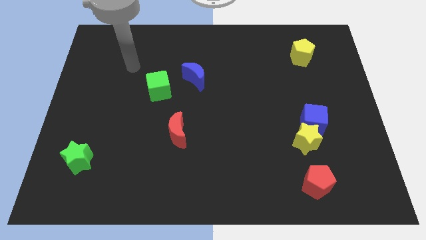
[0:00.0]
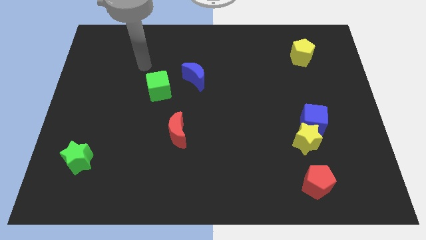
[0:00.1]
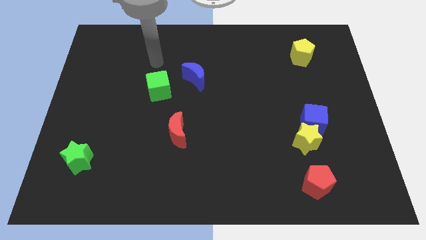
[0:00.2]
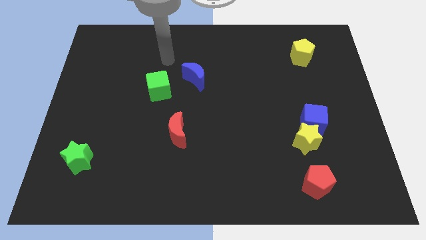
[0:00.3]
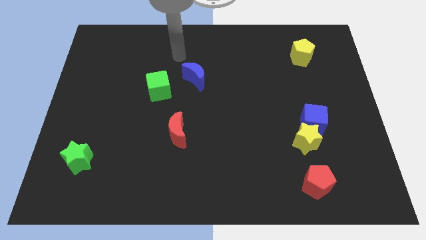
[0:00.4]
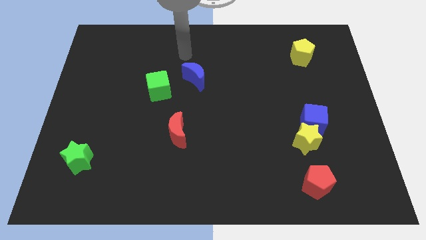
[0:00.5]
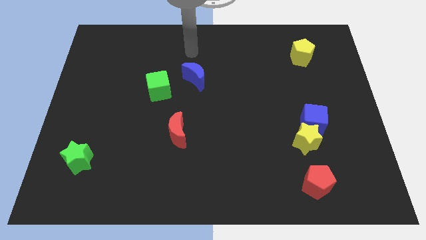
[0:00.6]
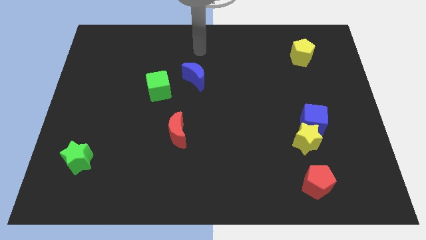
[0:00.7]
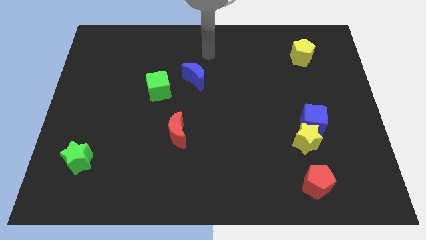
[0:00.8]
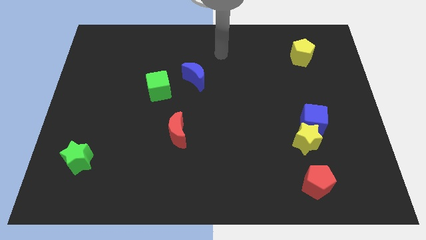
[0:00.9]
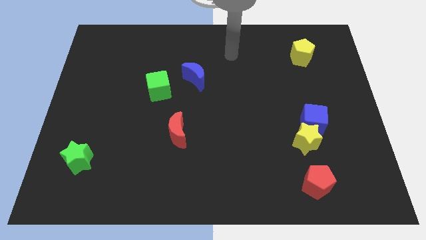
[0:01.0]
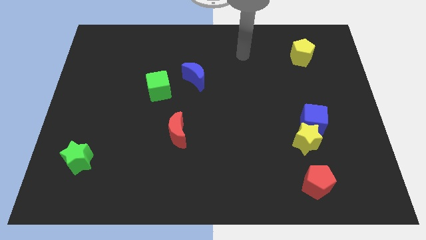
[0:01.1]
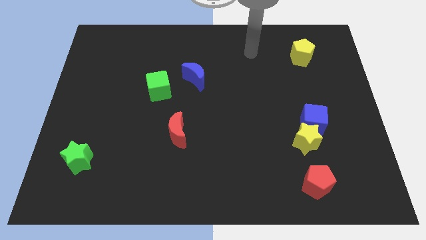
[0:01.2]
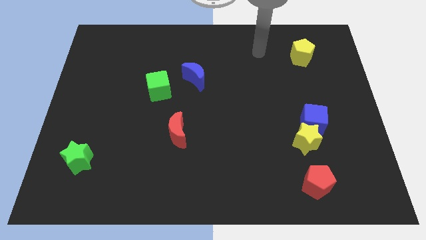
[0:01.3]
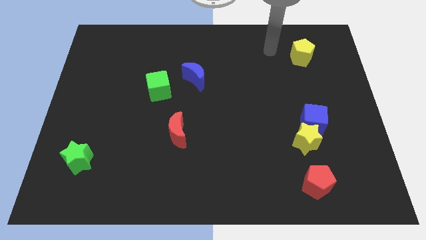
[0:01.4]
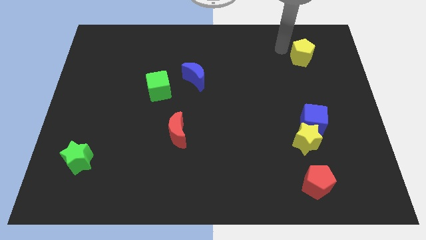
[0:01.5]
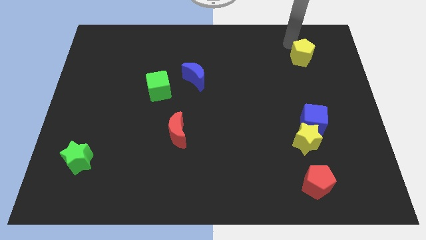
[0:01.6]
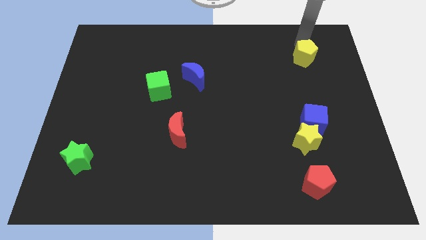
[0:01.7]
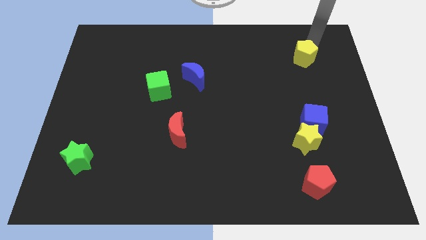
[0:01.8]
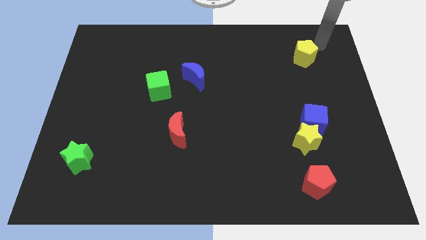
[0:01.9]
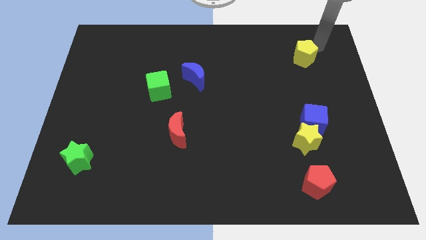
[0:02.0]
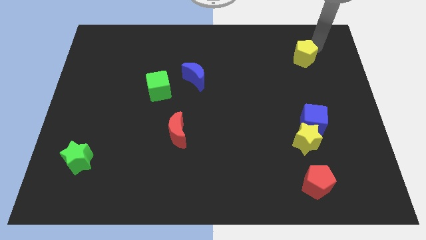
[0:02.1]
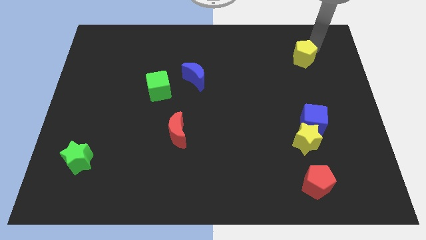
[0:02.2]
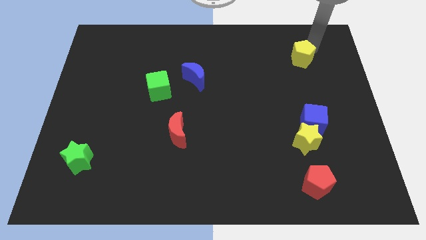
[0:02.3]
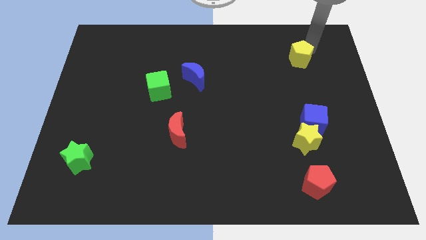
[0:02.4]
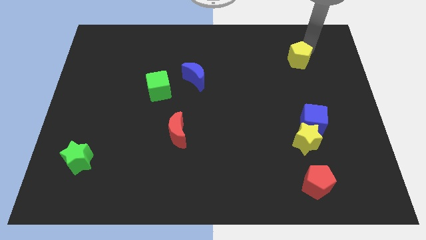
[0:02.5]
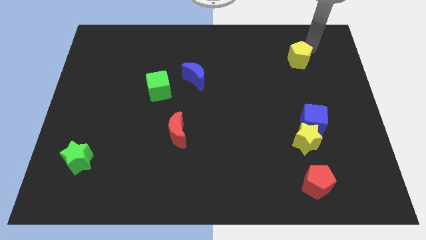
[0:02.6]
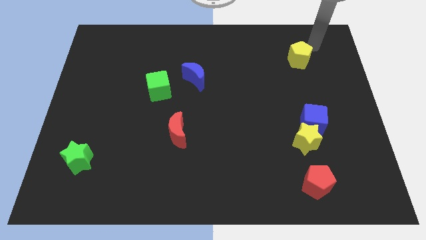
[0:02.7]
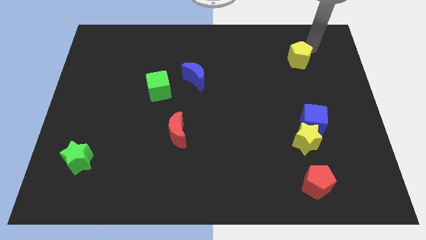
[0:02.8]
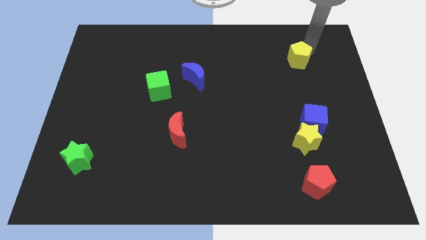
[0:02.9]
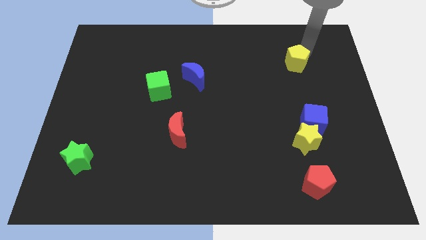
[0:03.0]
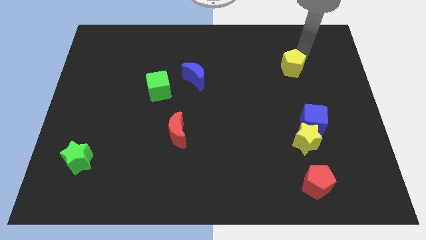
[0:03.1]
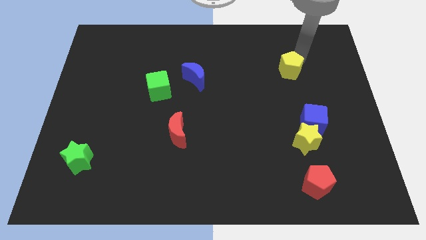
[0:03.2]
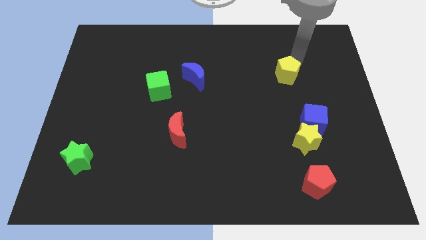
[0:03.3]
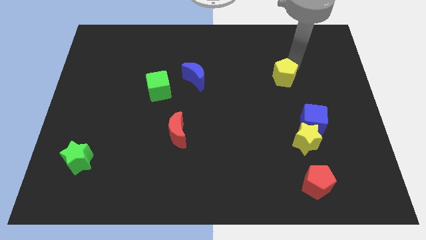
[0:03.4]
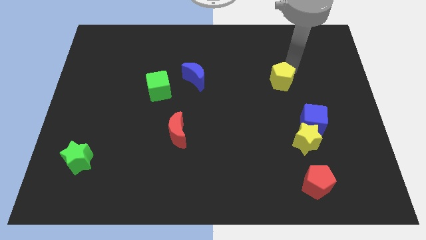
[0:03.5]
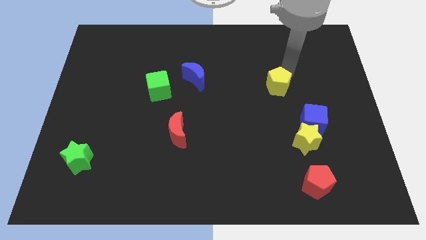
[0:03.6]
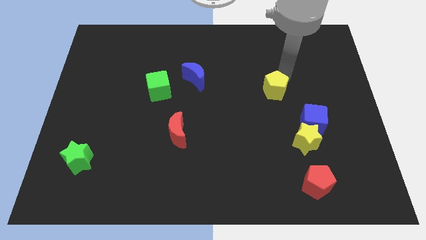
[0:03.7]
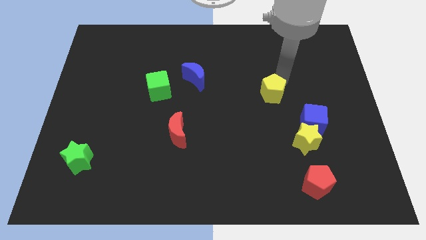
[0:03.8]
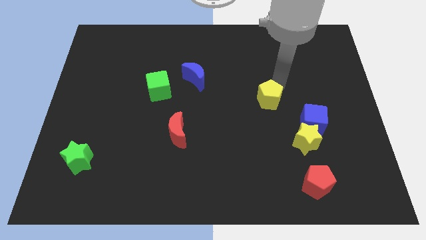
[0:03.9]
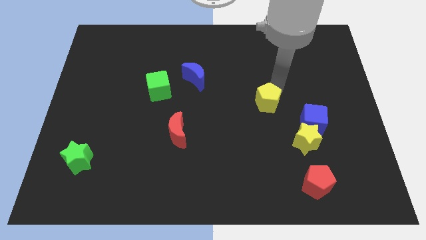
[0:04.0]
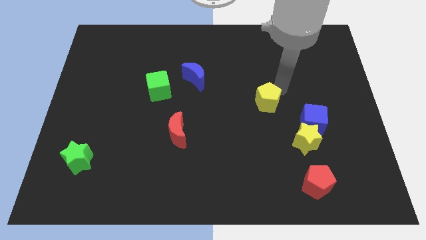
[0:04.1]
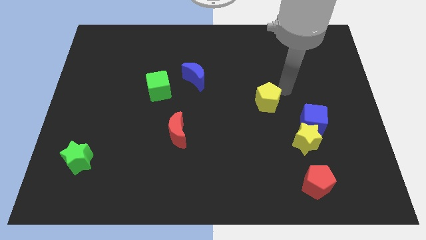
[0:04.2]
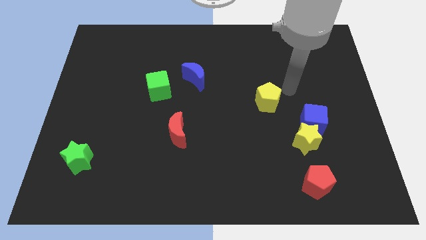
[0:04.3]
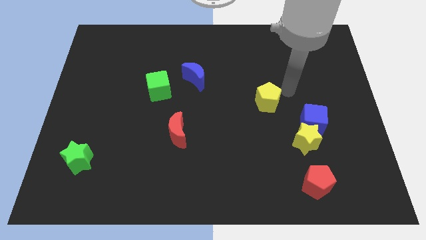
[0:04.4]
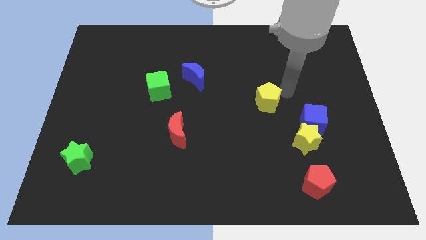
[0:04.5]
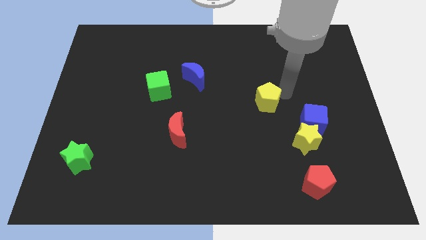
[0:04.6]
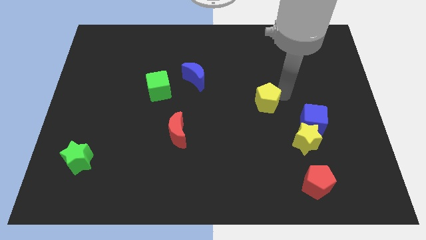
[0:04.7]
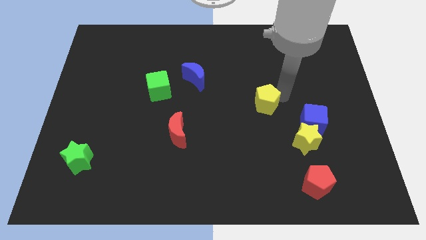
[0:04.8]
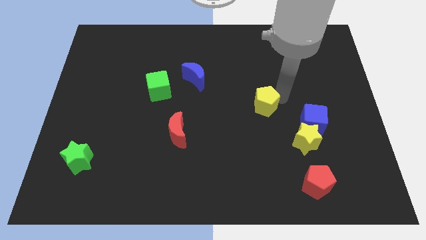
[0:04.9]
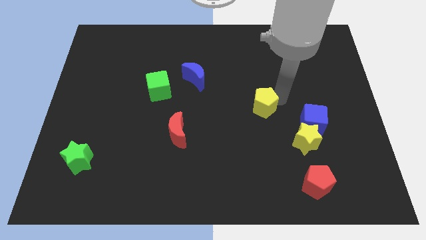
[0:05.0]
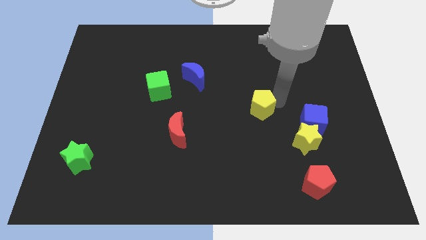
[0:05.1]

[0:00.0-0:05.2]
slide the yellow pentagon down and to the left diagonally

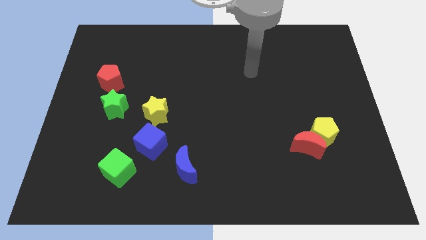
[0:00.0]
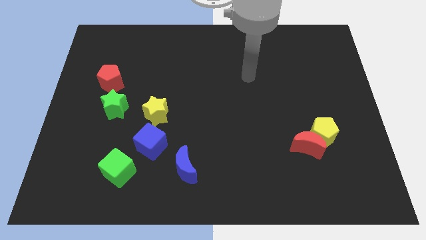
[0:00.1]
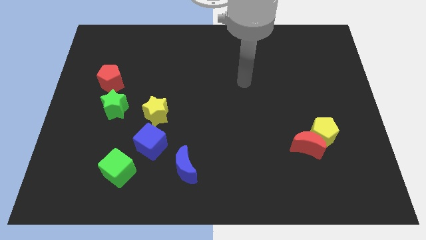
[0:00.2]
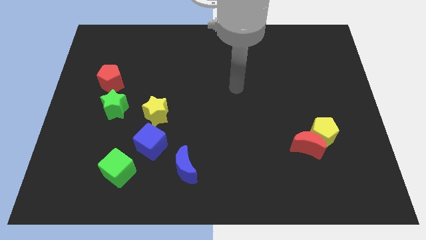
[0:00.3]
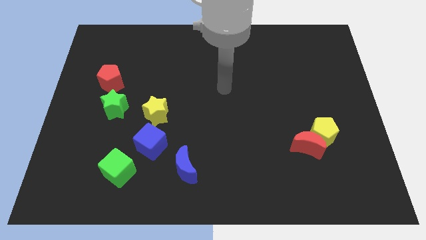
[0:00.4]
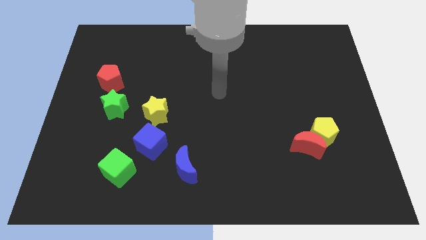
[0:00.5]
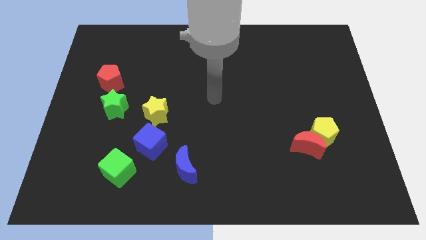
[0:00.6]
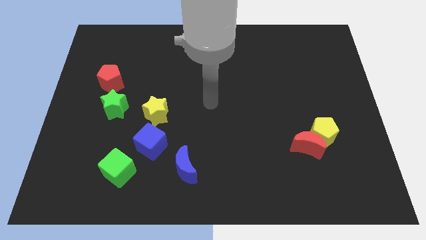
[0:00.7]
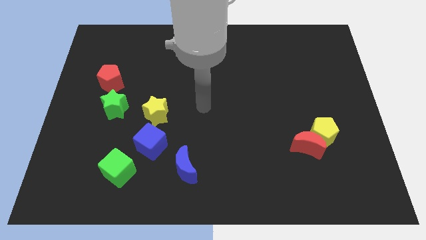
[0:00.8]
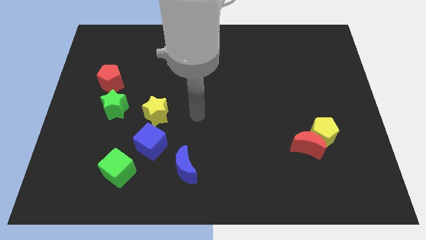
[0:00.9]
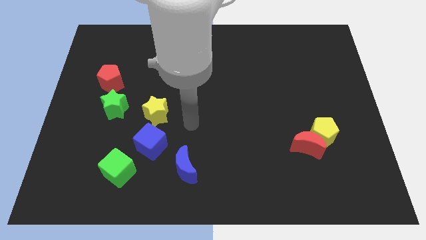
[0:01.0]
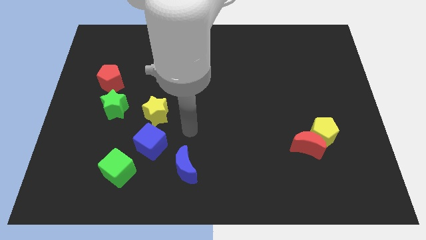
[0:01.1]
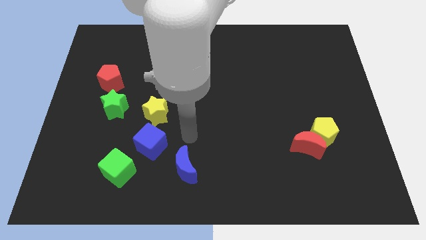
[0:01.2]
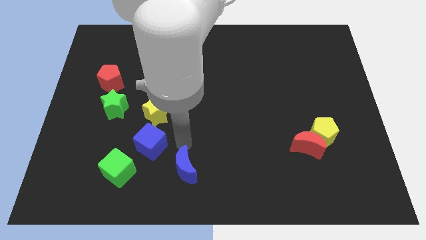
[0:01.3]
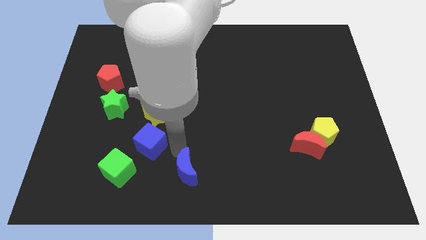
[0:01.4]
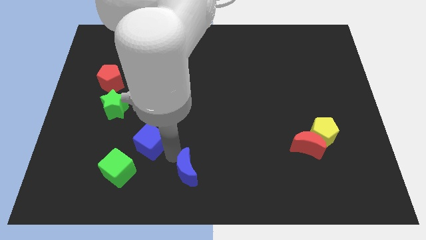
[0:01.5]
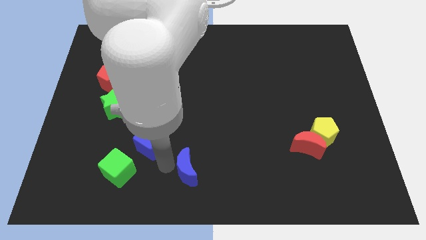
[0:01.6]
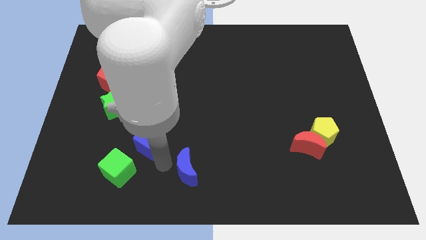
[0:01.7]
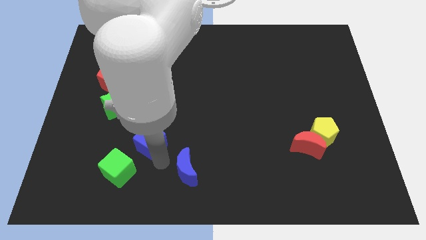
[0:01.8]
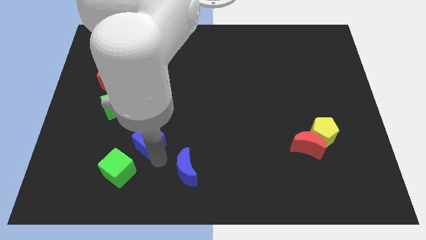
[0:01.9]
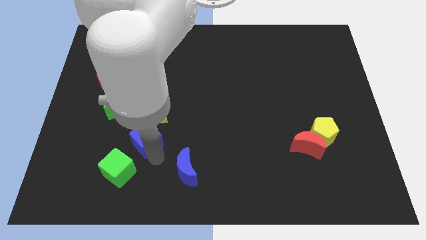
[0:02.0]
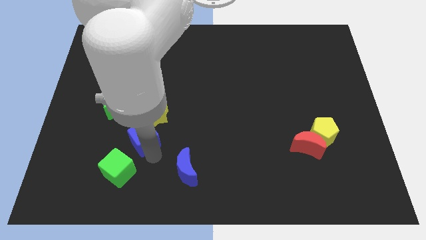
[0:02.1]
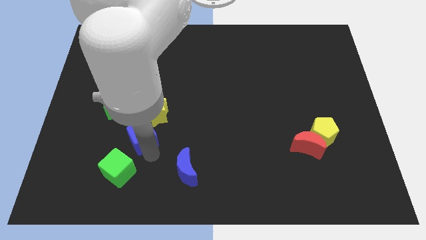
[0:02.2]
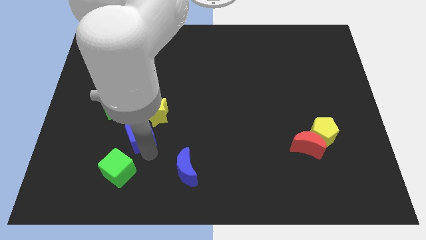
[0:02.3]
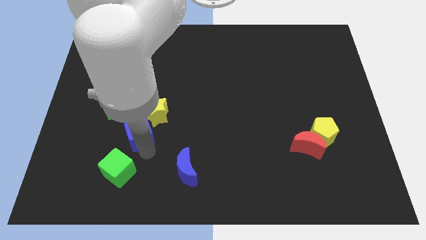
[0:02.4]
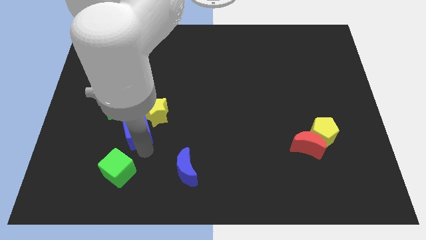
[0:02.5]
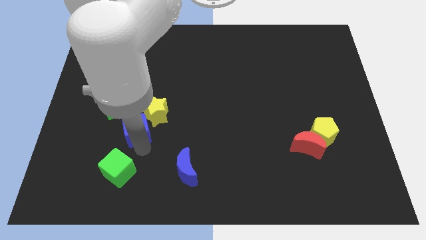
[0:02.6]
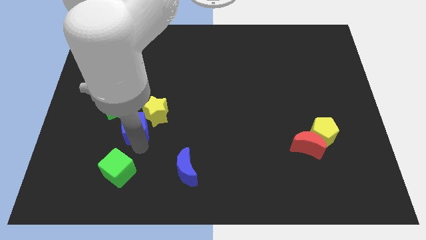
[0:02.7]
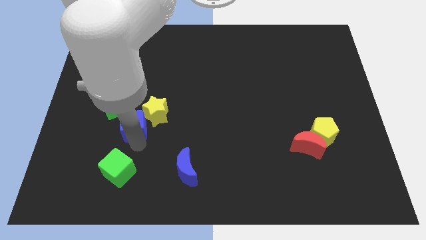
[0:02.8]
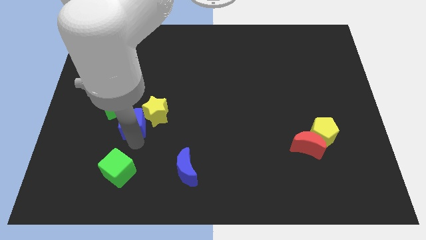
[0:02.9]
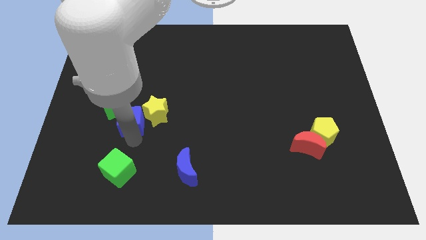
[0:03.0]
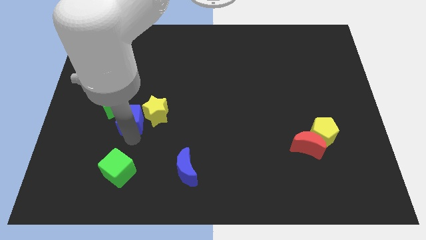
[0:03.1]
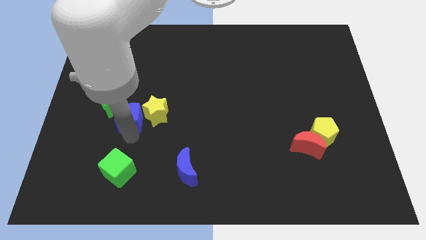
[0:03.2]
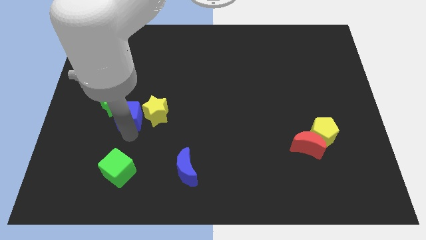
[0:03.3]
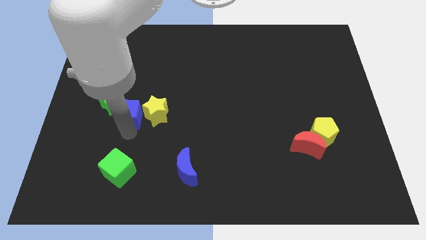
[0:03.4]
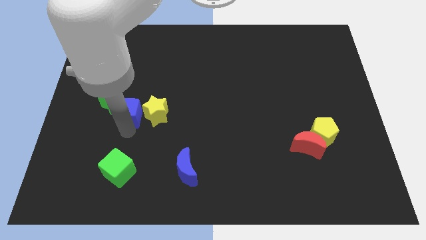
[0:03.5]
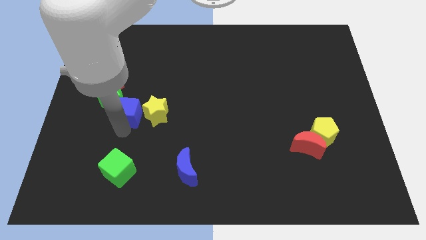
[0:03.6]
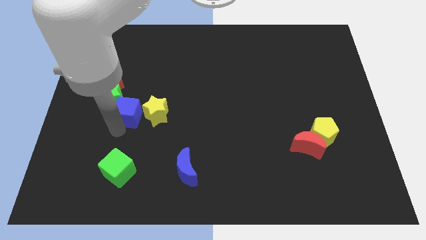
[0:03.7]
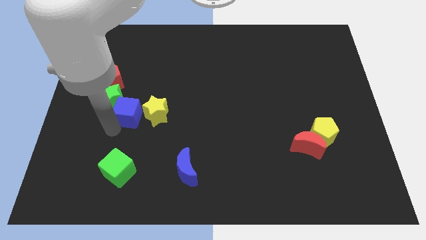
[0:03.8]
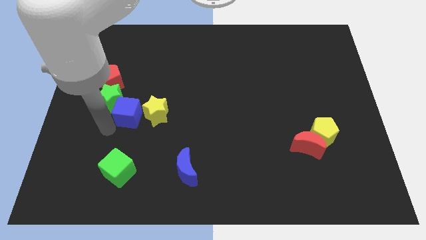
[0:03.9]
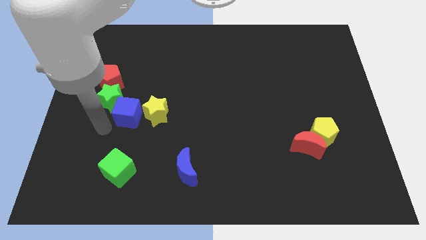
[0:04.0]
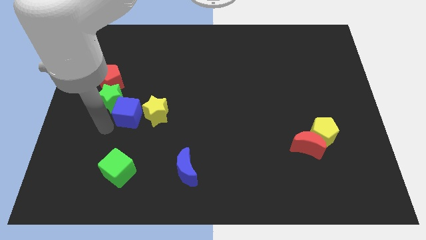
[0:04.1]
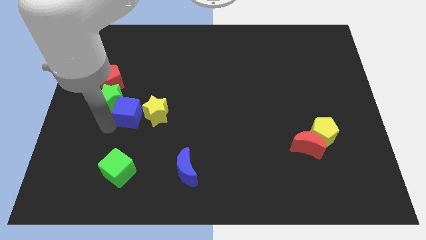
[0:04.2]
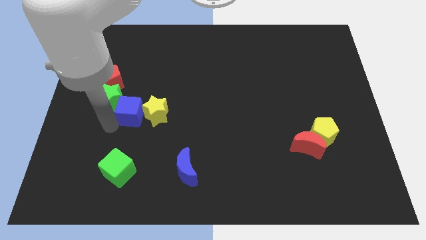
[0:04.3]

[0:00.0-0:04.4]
slide the blue cube a bit up
